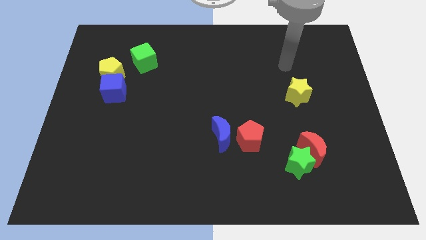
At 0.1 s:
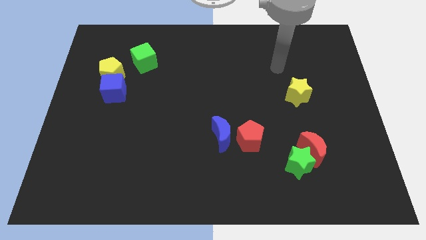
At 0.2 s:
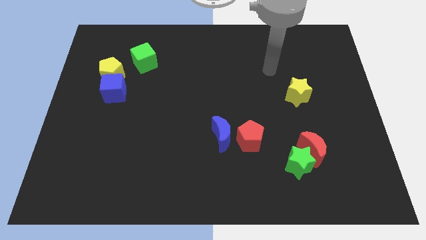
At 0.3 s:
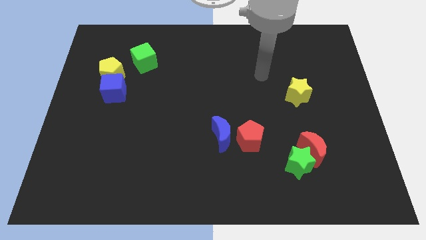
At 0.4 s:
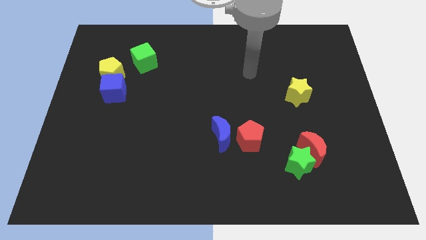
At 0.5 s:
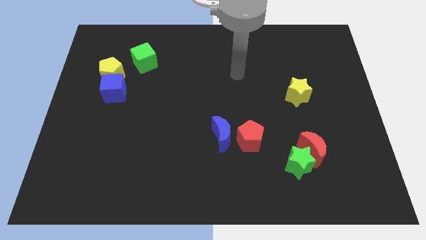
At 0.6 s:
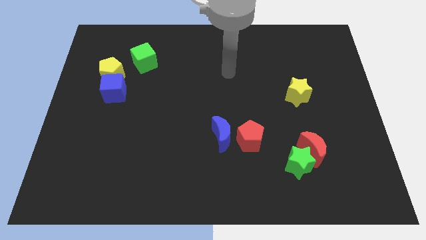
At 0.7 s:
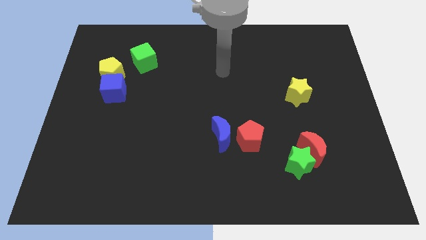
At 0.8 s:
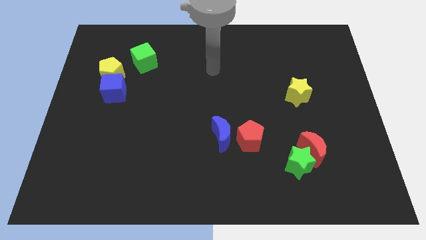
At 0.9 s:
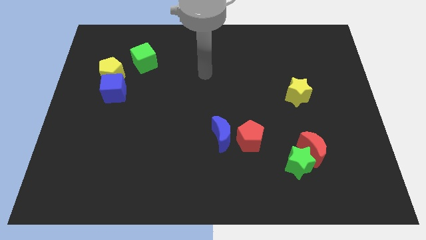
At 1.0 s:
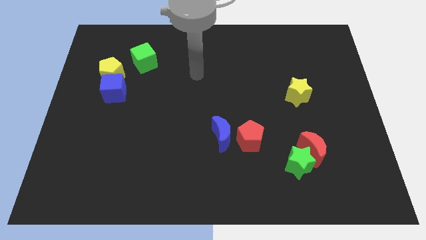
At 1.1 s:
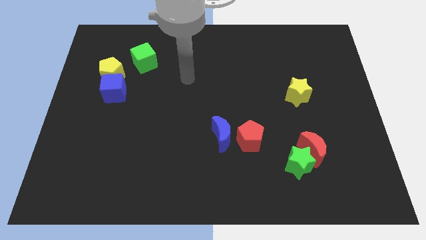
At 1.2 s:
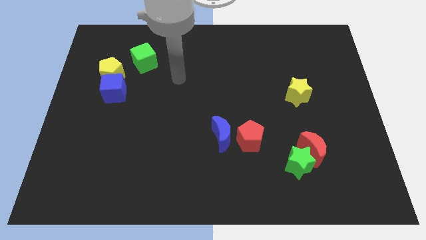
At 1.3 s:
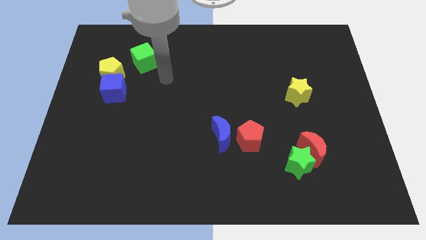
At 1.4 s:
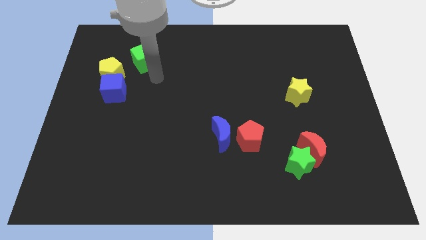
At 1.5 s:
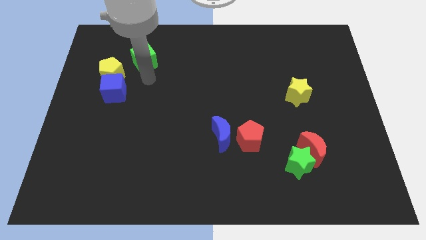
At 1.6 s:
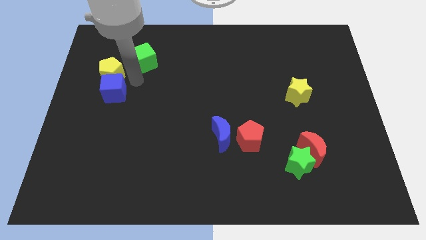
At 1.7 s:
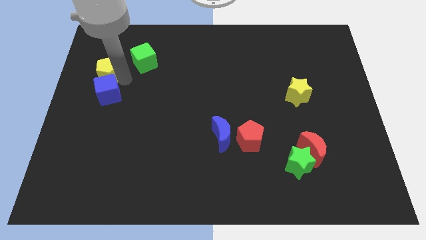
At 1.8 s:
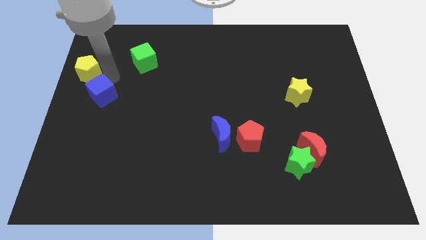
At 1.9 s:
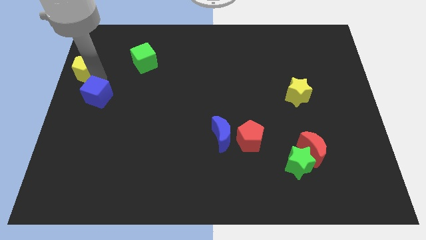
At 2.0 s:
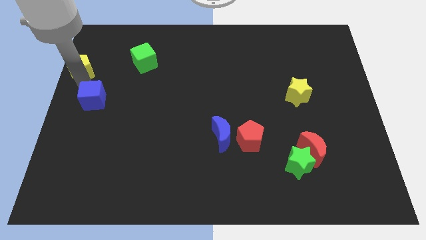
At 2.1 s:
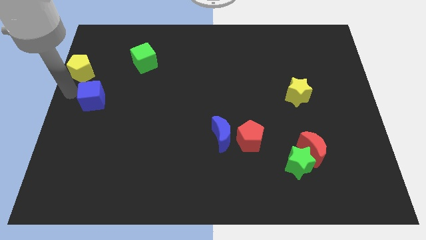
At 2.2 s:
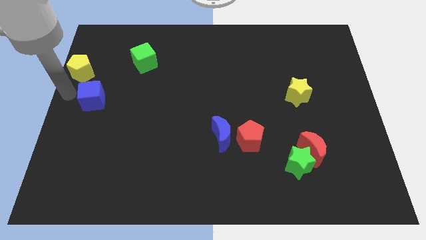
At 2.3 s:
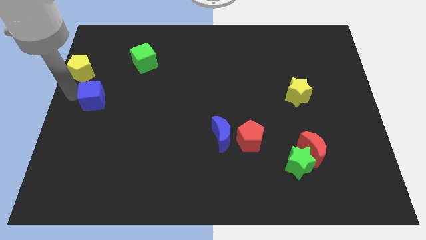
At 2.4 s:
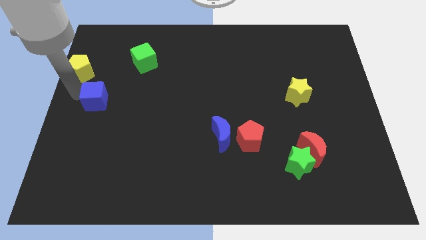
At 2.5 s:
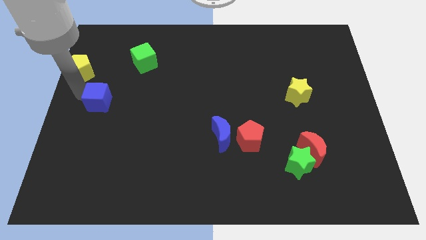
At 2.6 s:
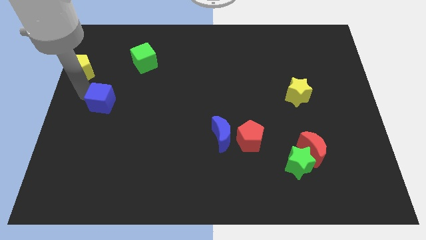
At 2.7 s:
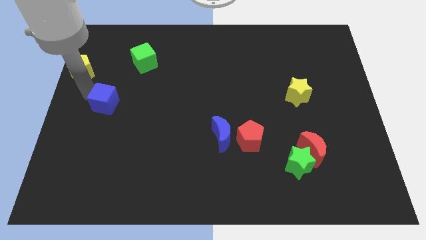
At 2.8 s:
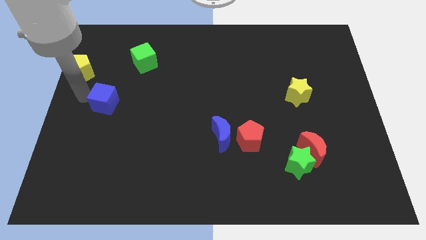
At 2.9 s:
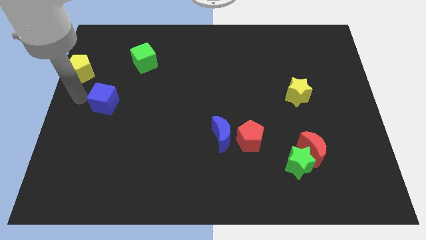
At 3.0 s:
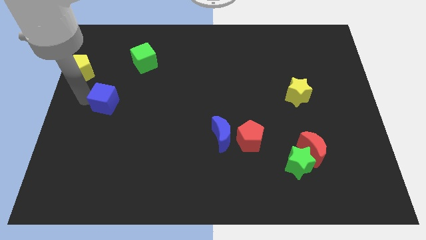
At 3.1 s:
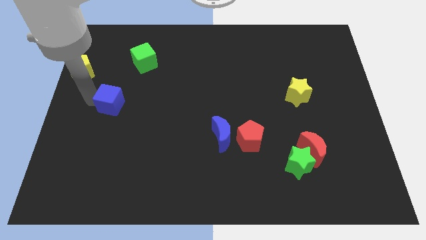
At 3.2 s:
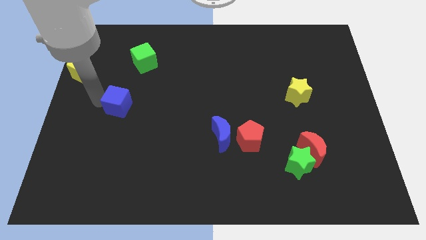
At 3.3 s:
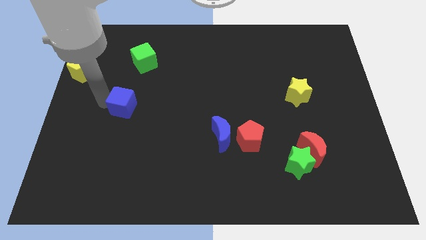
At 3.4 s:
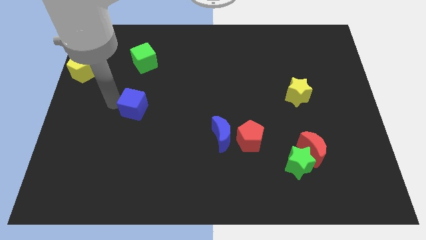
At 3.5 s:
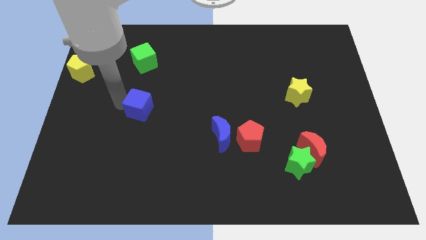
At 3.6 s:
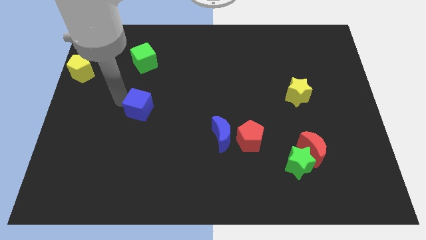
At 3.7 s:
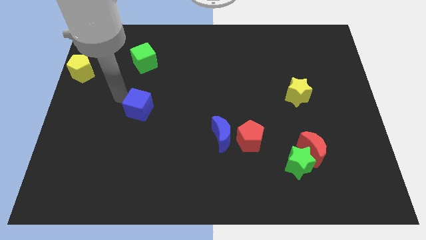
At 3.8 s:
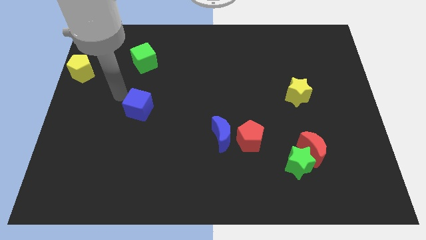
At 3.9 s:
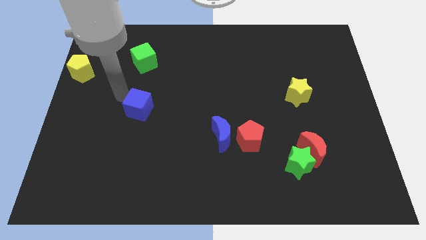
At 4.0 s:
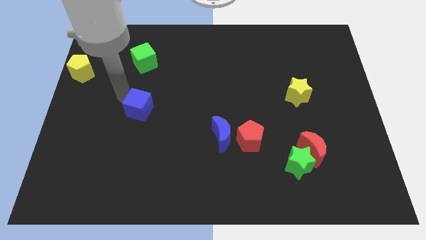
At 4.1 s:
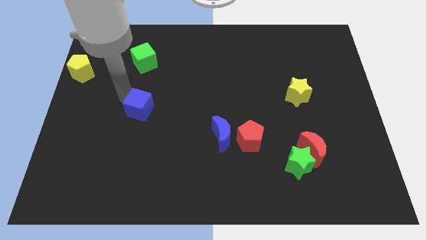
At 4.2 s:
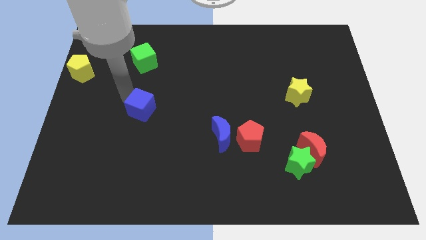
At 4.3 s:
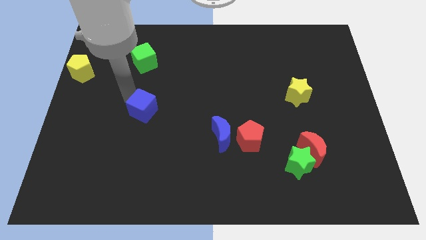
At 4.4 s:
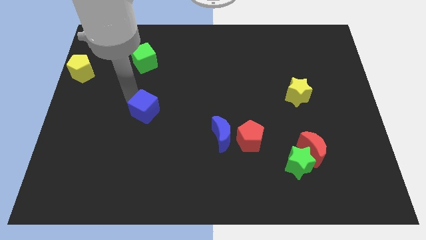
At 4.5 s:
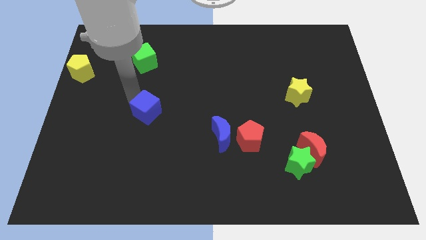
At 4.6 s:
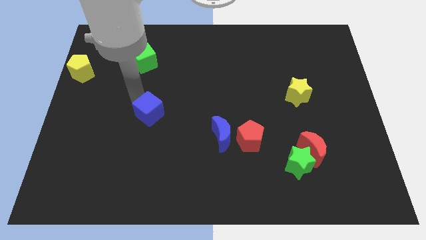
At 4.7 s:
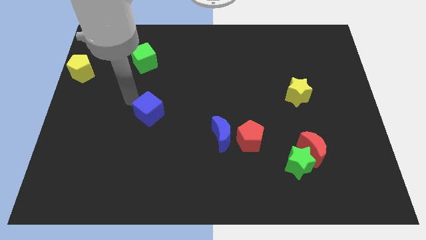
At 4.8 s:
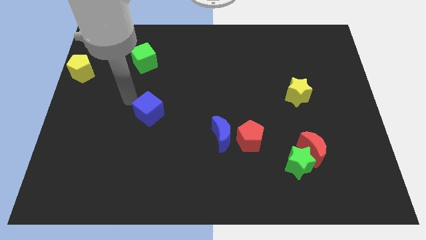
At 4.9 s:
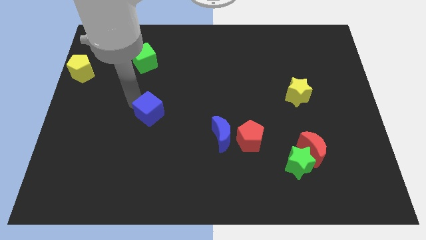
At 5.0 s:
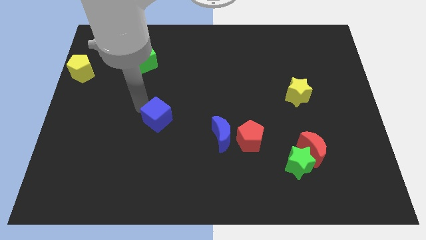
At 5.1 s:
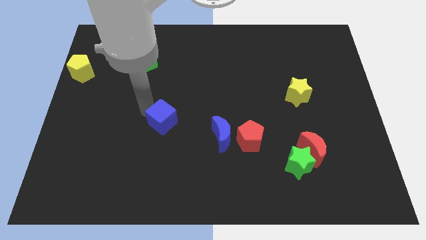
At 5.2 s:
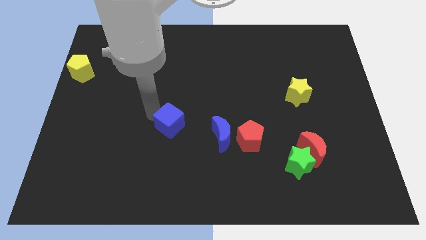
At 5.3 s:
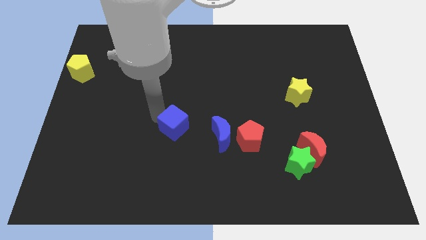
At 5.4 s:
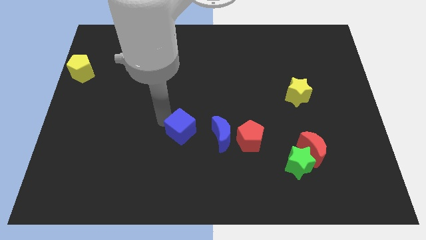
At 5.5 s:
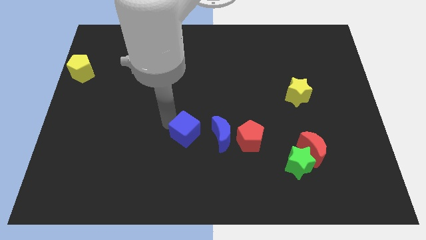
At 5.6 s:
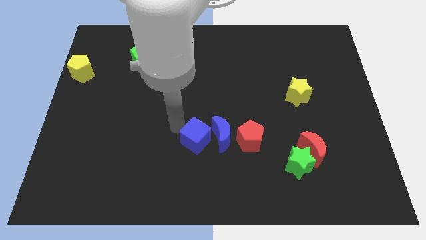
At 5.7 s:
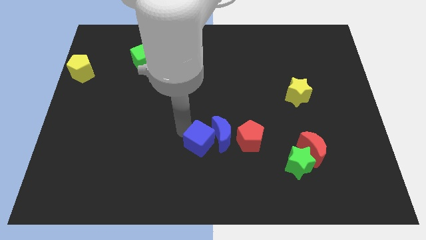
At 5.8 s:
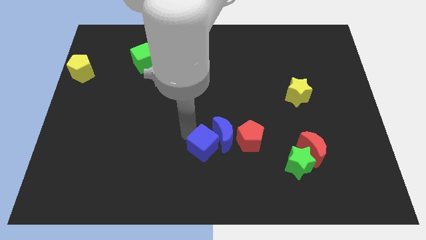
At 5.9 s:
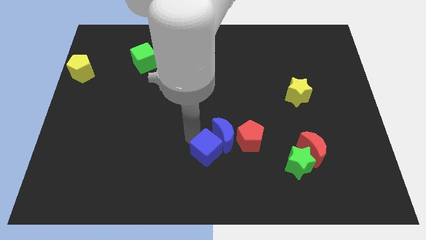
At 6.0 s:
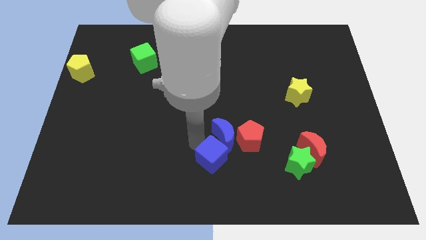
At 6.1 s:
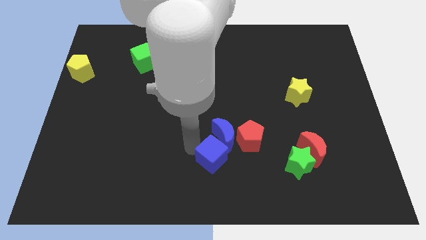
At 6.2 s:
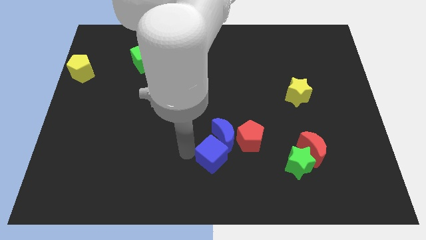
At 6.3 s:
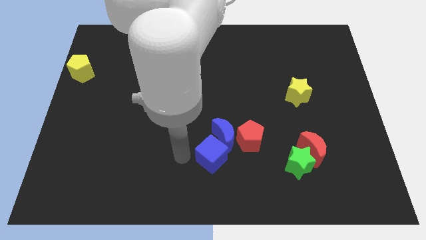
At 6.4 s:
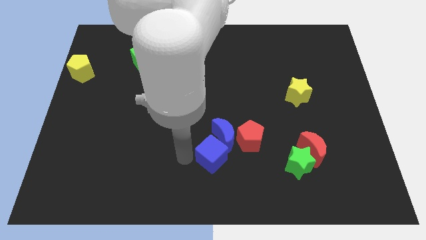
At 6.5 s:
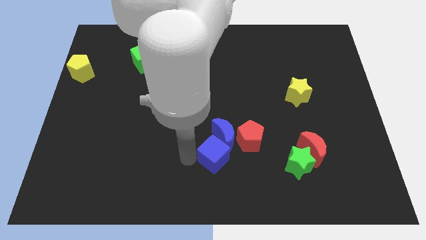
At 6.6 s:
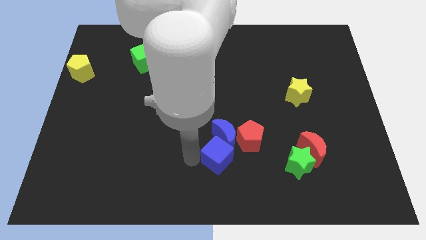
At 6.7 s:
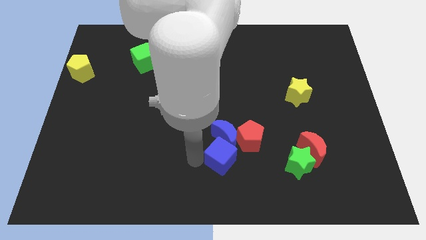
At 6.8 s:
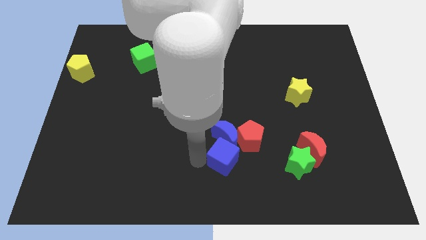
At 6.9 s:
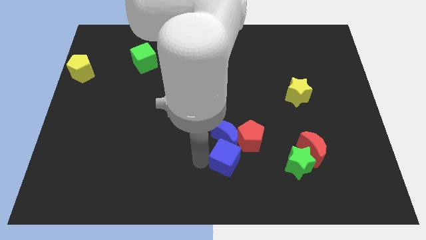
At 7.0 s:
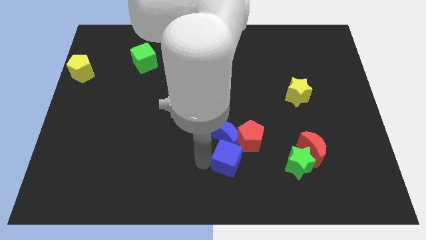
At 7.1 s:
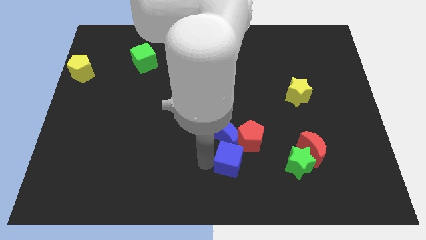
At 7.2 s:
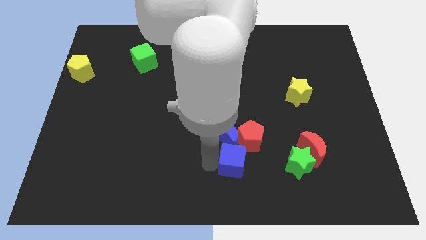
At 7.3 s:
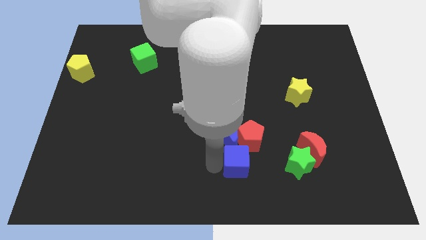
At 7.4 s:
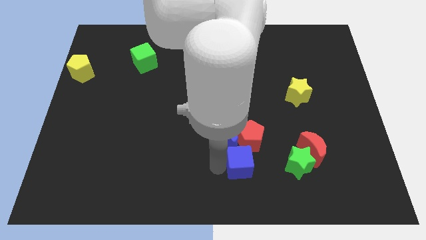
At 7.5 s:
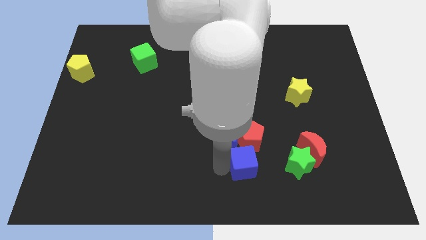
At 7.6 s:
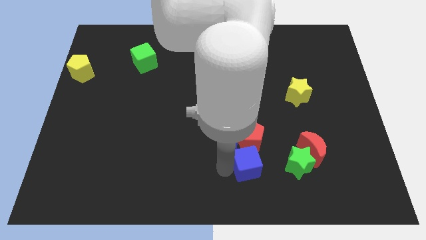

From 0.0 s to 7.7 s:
put the blue cube to the left side of the red moon

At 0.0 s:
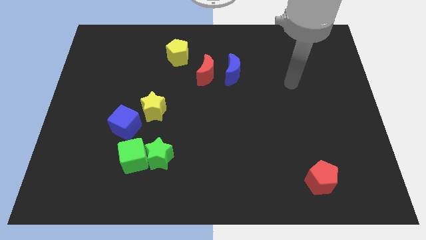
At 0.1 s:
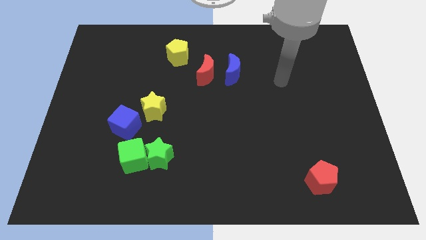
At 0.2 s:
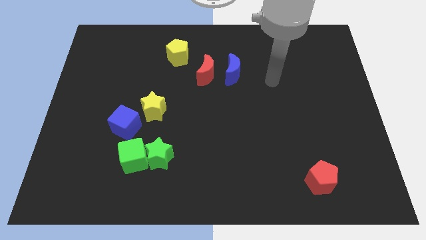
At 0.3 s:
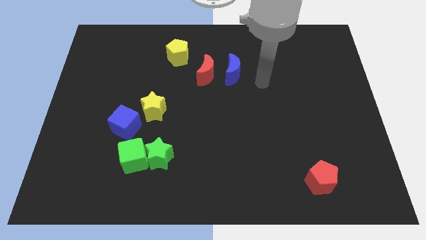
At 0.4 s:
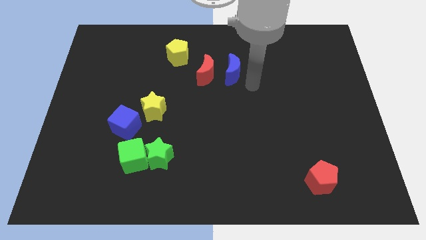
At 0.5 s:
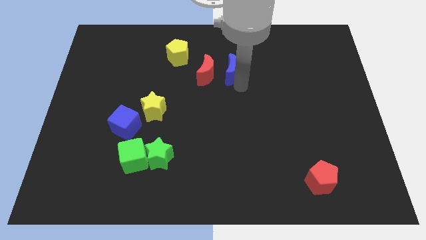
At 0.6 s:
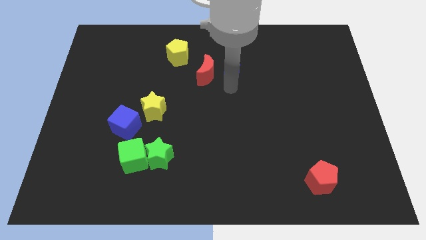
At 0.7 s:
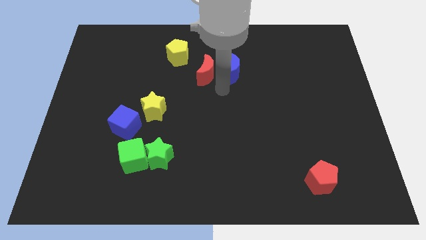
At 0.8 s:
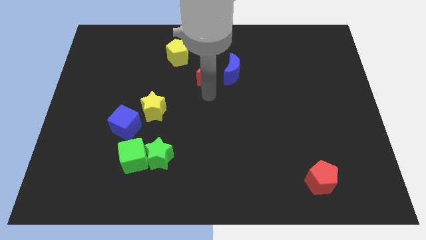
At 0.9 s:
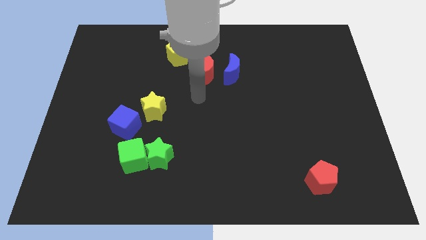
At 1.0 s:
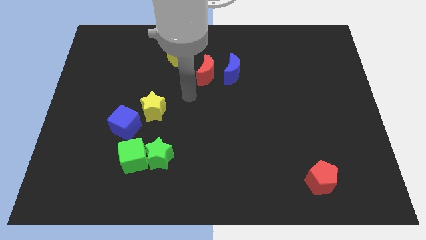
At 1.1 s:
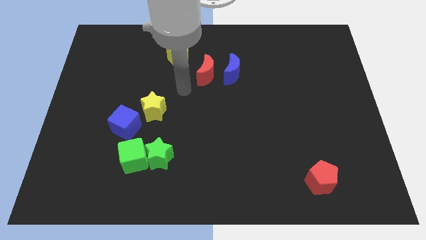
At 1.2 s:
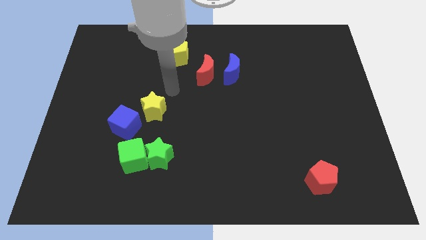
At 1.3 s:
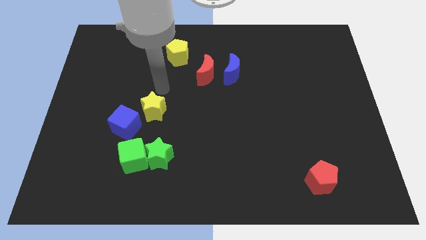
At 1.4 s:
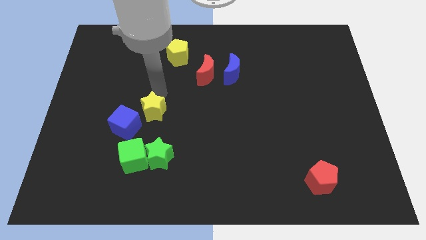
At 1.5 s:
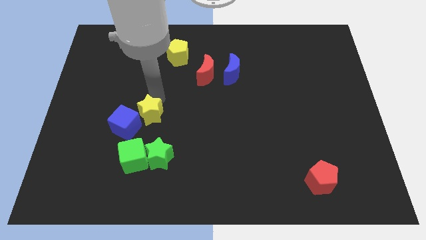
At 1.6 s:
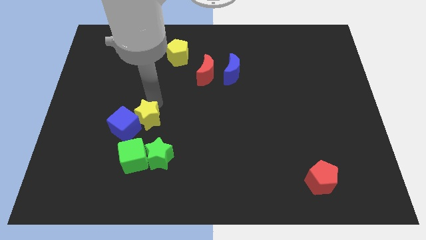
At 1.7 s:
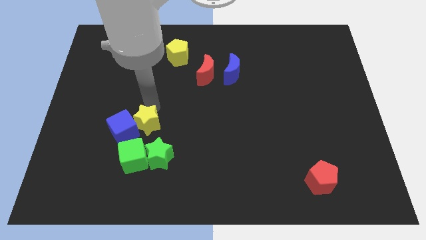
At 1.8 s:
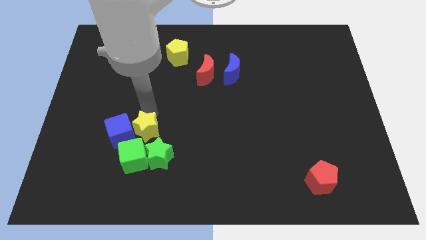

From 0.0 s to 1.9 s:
put the yellow star to the bottom right side of the blue cube
